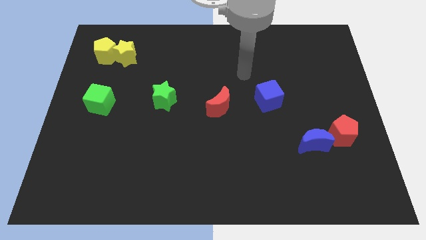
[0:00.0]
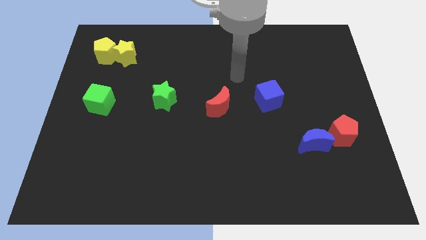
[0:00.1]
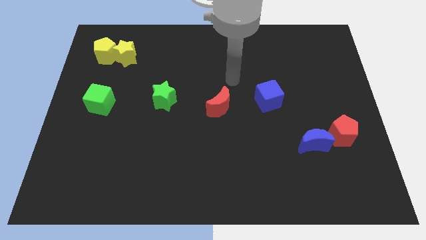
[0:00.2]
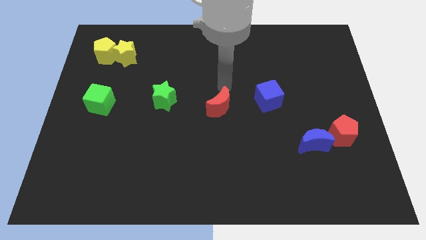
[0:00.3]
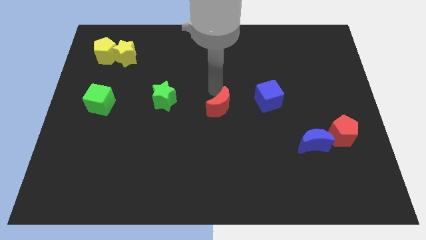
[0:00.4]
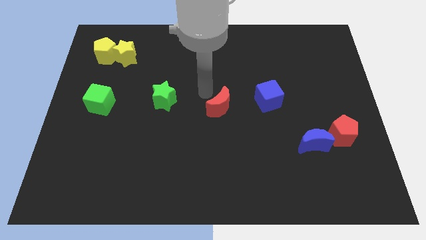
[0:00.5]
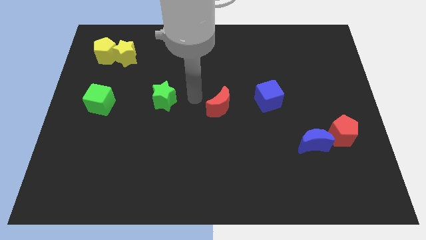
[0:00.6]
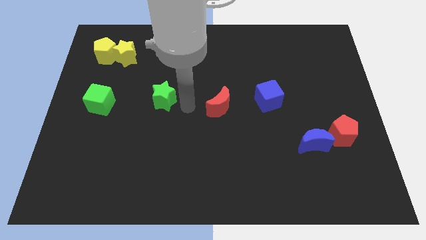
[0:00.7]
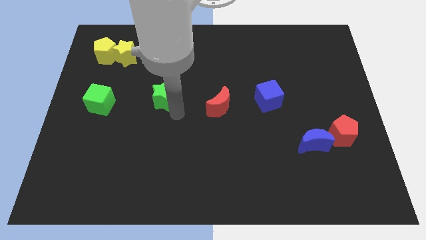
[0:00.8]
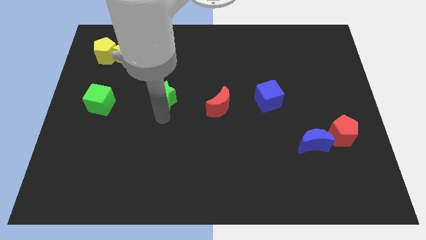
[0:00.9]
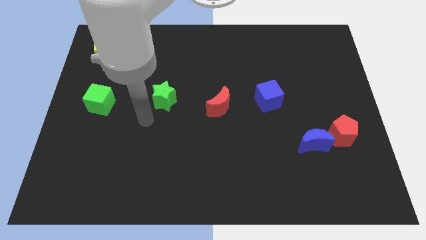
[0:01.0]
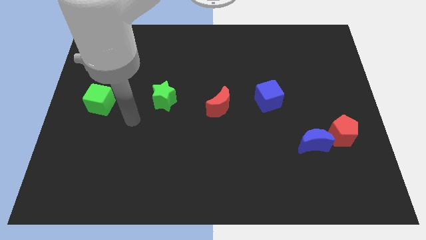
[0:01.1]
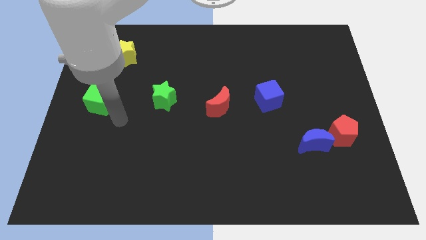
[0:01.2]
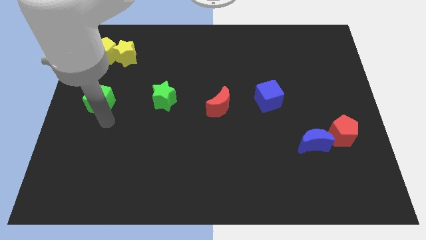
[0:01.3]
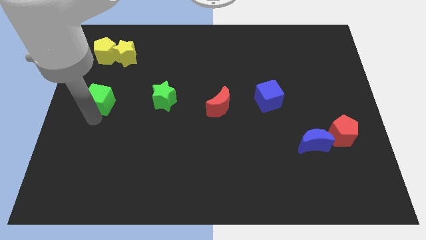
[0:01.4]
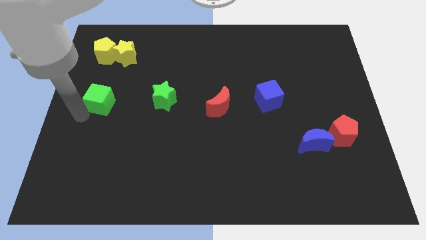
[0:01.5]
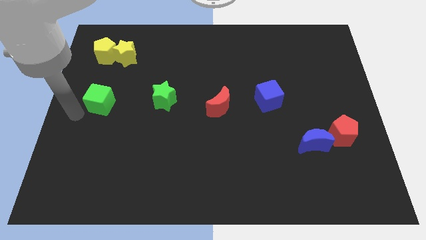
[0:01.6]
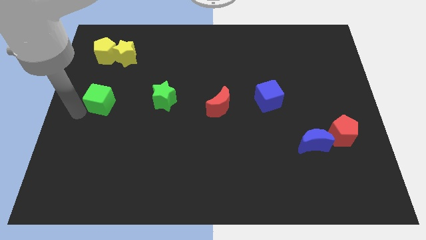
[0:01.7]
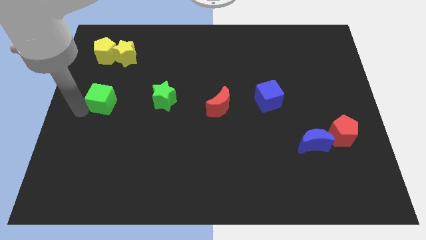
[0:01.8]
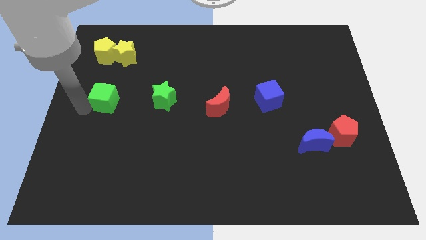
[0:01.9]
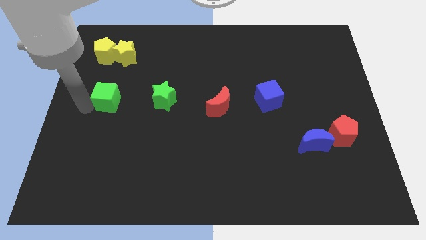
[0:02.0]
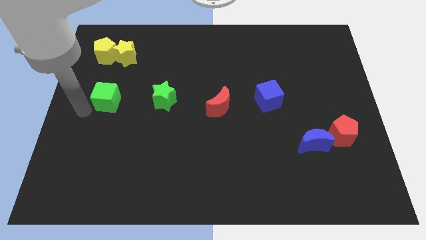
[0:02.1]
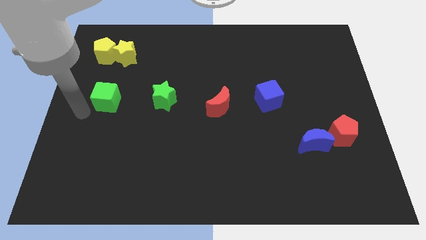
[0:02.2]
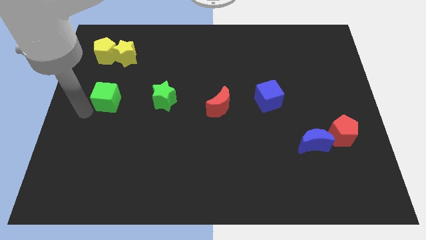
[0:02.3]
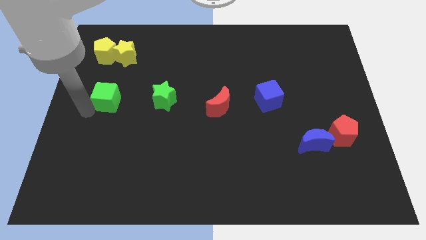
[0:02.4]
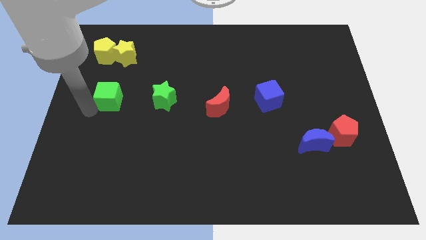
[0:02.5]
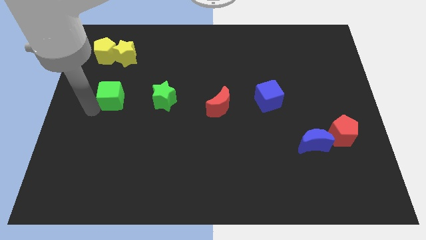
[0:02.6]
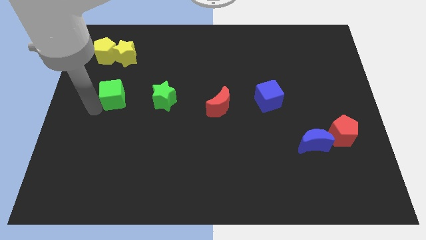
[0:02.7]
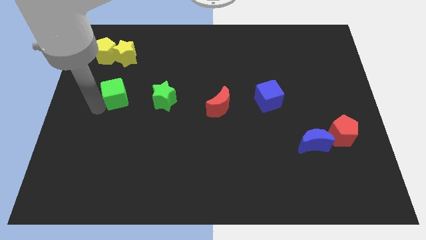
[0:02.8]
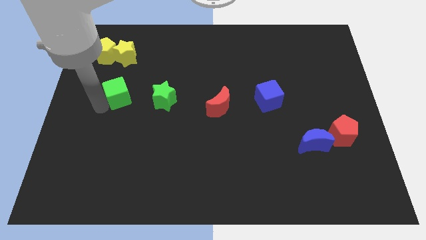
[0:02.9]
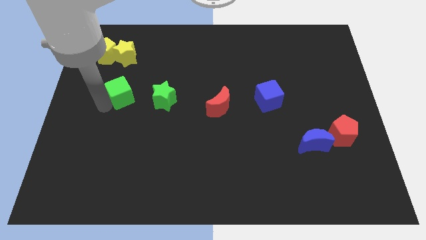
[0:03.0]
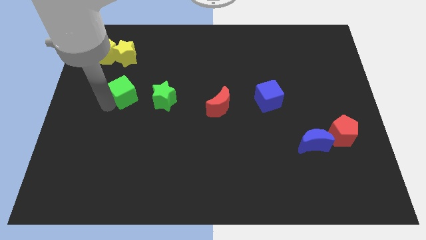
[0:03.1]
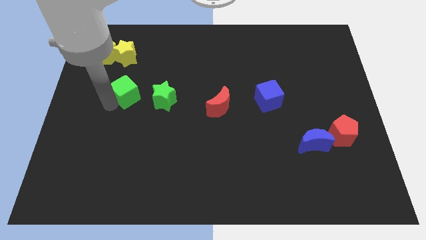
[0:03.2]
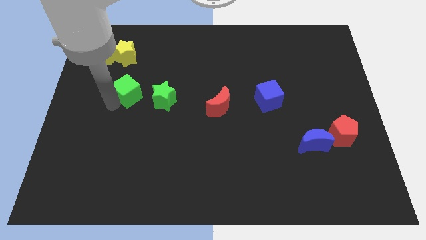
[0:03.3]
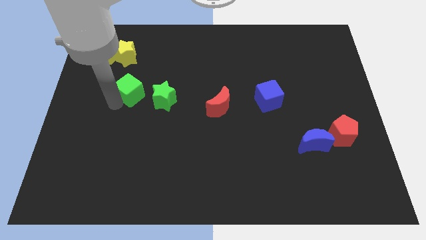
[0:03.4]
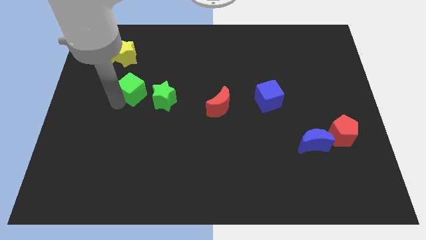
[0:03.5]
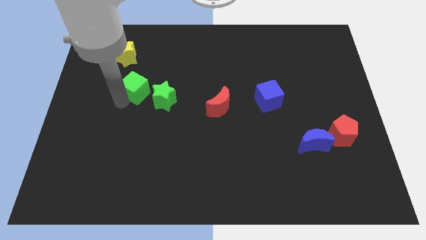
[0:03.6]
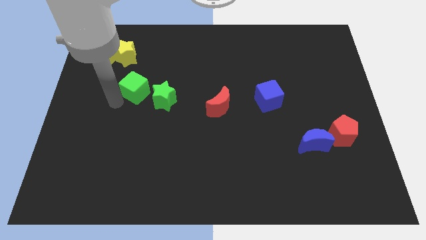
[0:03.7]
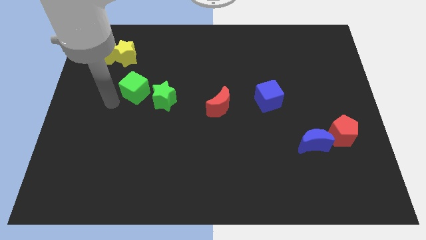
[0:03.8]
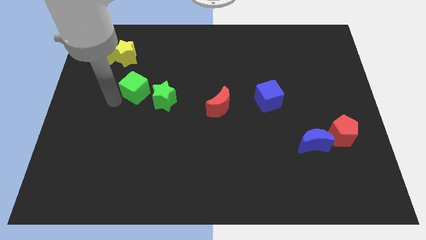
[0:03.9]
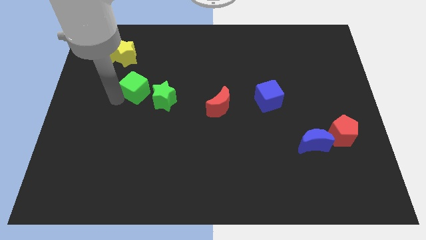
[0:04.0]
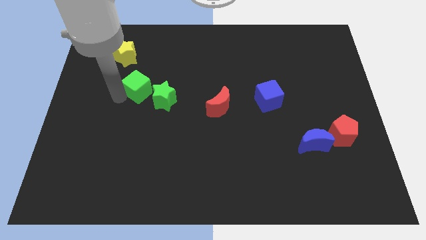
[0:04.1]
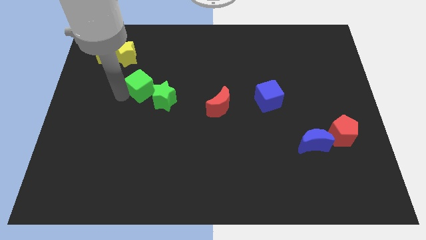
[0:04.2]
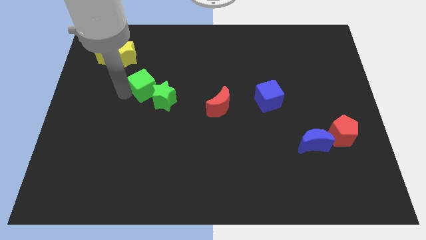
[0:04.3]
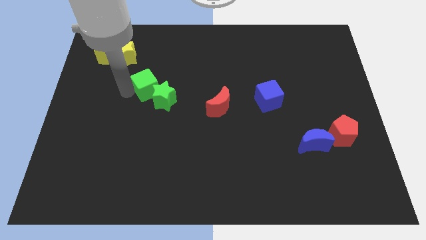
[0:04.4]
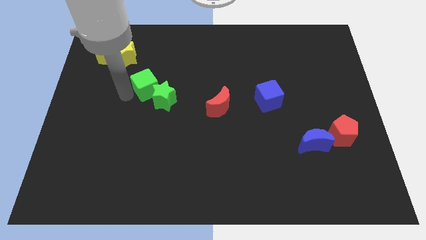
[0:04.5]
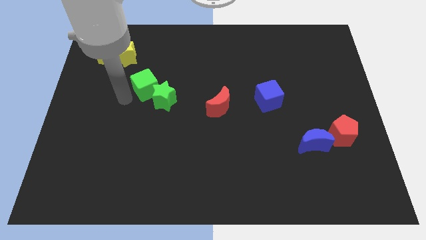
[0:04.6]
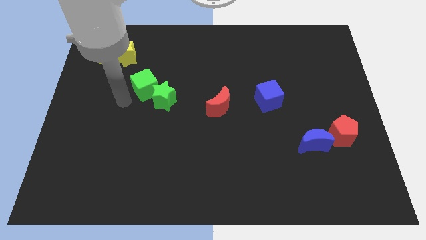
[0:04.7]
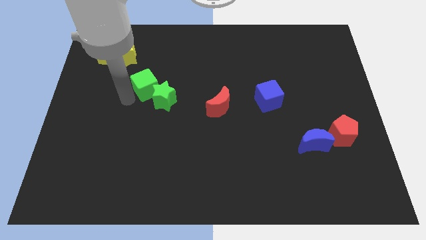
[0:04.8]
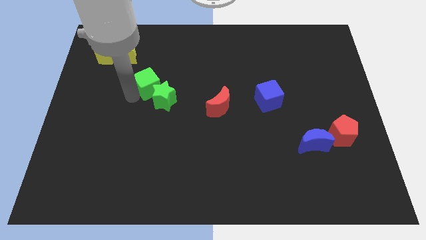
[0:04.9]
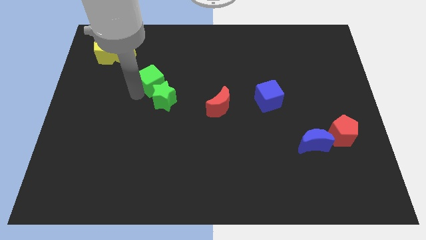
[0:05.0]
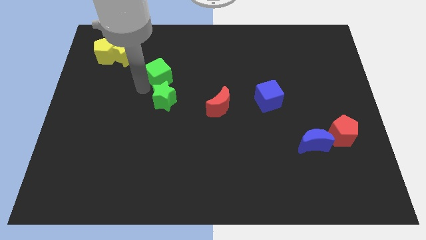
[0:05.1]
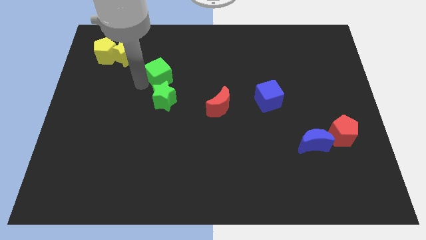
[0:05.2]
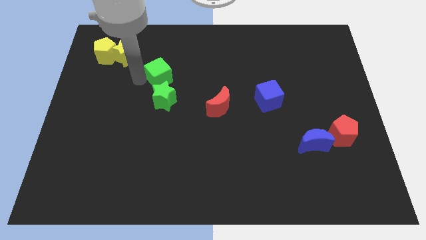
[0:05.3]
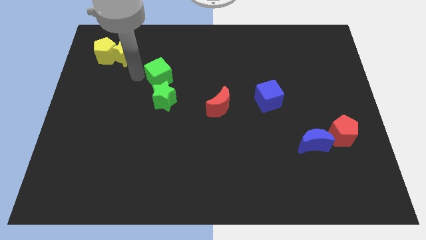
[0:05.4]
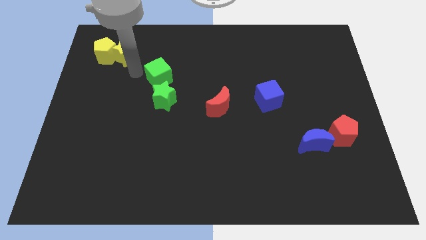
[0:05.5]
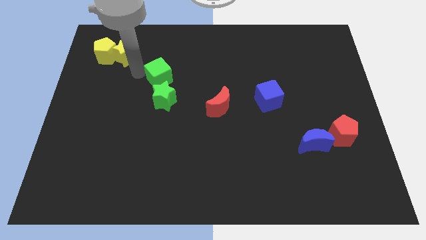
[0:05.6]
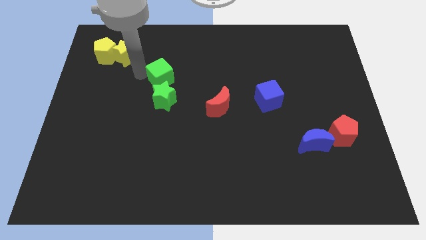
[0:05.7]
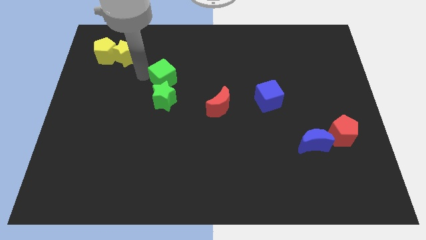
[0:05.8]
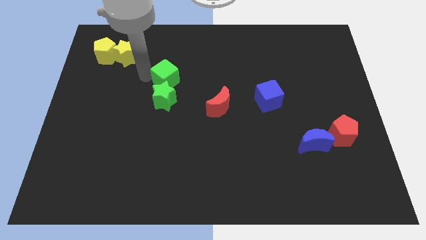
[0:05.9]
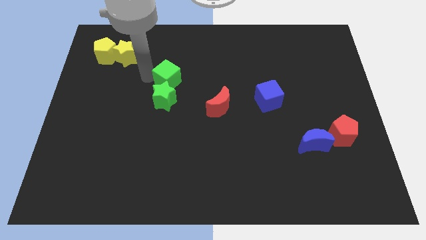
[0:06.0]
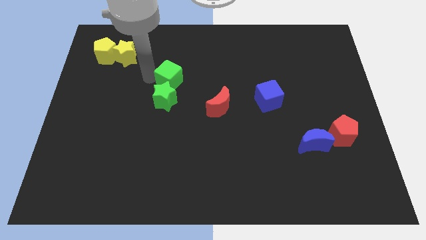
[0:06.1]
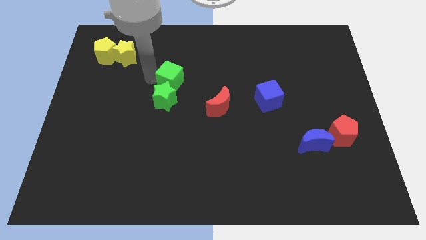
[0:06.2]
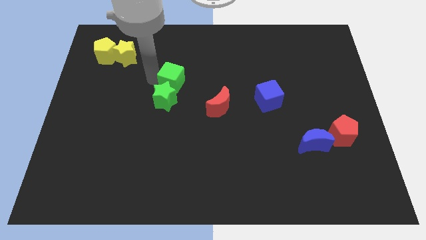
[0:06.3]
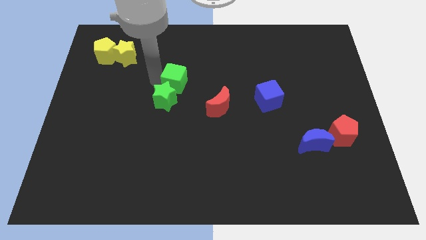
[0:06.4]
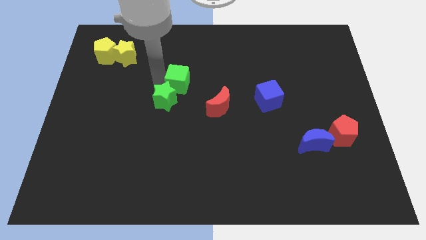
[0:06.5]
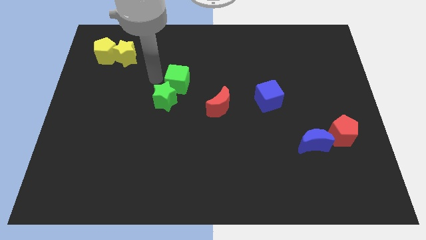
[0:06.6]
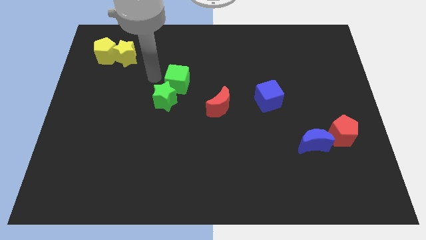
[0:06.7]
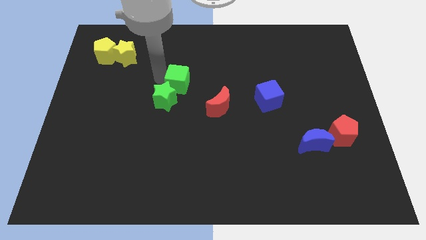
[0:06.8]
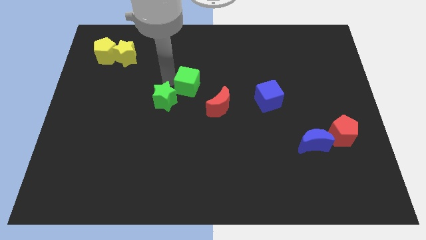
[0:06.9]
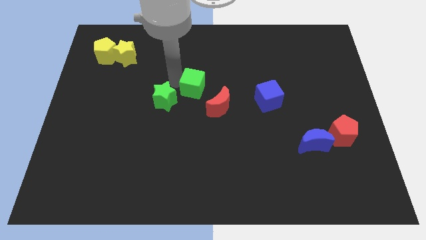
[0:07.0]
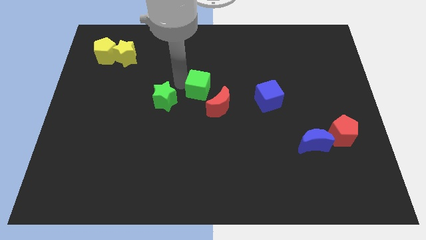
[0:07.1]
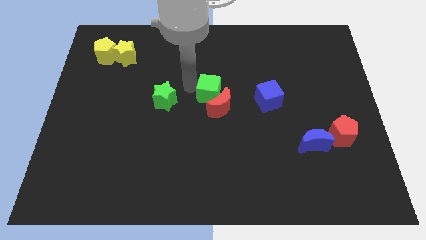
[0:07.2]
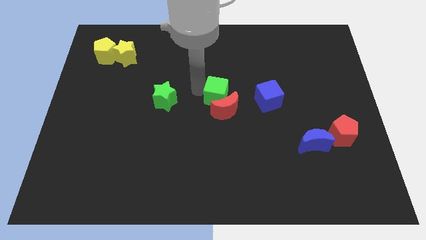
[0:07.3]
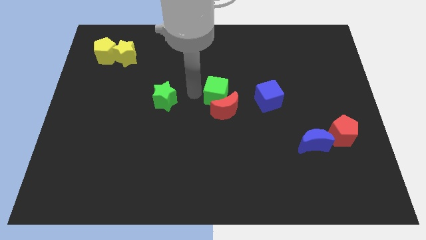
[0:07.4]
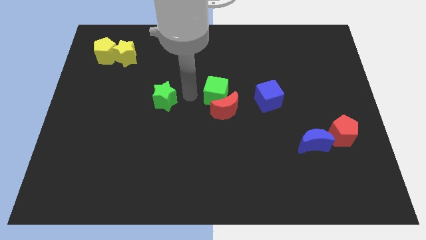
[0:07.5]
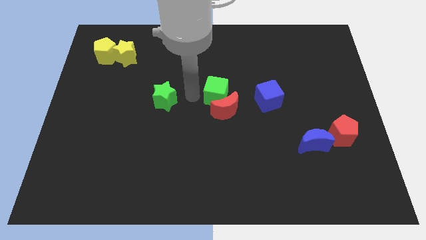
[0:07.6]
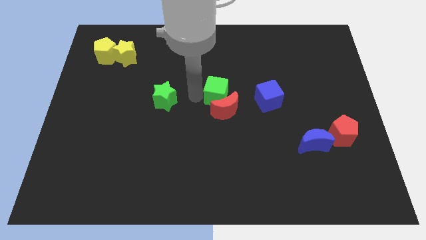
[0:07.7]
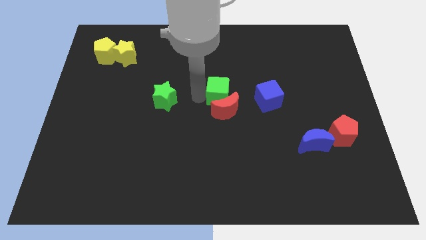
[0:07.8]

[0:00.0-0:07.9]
put the green cube to the top right of the red moon
